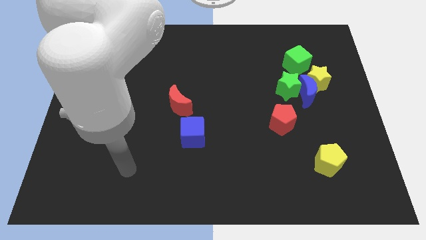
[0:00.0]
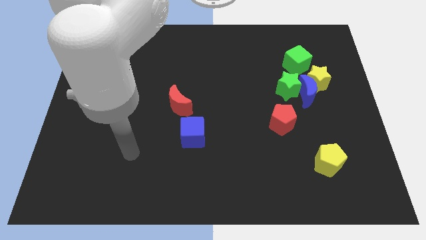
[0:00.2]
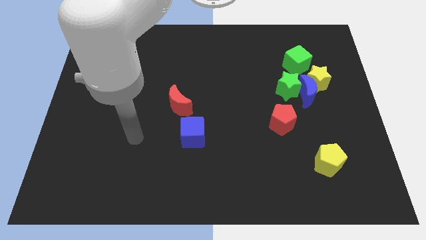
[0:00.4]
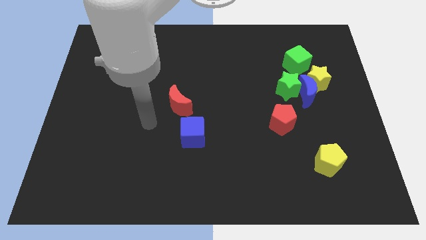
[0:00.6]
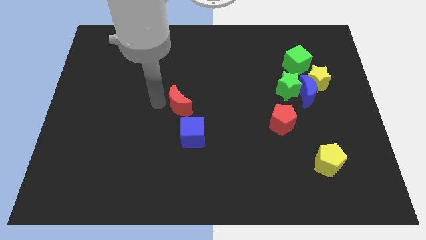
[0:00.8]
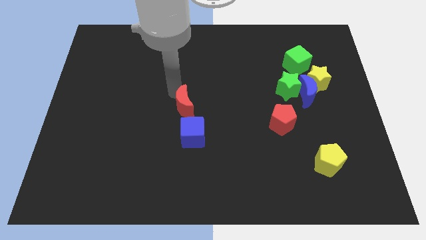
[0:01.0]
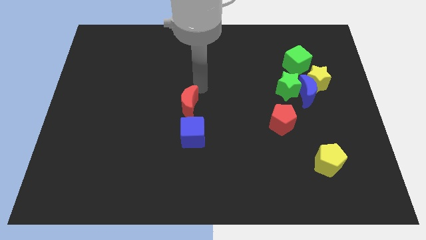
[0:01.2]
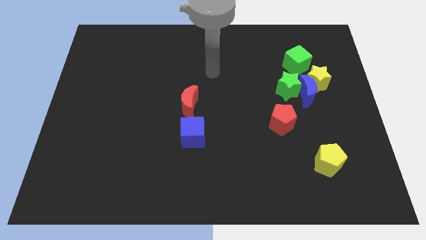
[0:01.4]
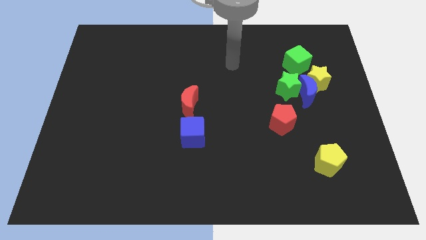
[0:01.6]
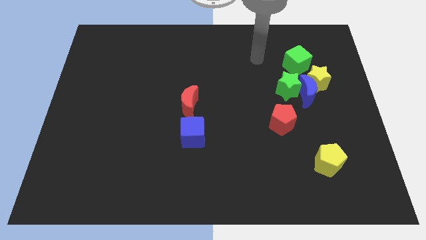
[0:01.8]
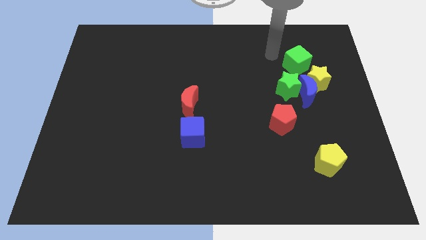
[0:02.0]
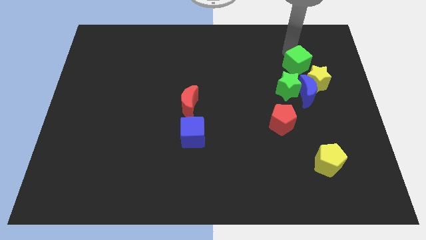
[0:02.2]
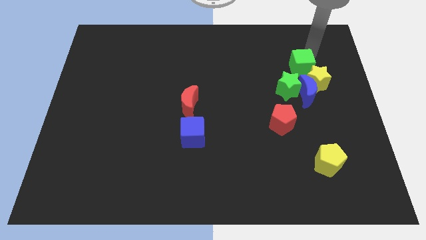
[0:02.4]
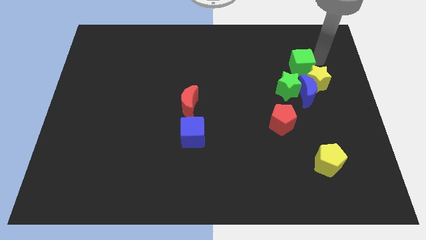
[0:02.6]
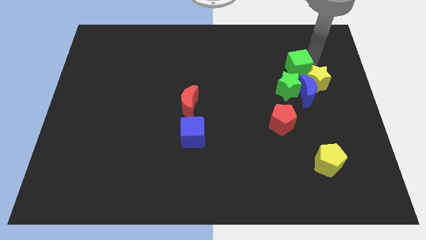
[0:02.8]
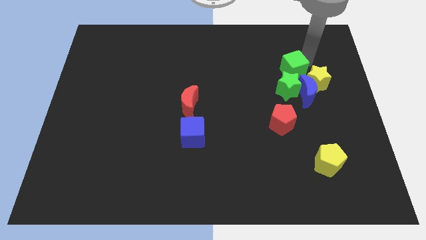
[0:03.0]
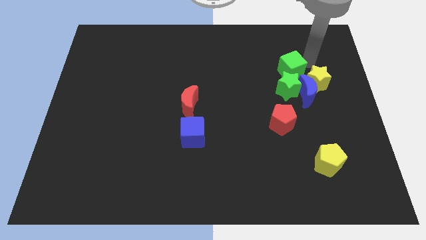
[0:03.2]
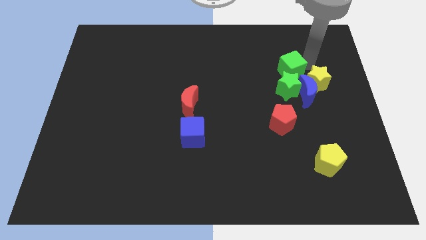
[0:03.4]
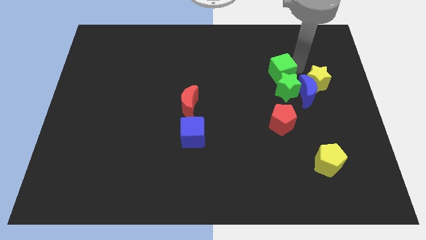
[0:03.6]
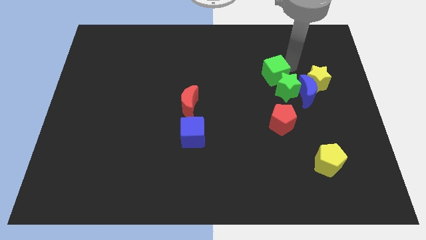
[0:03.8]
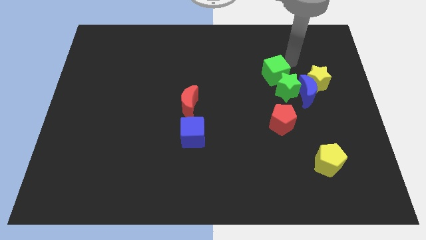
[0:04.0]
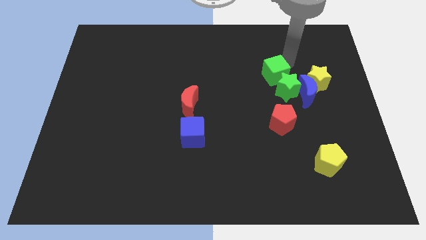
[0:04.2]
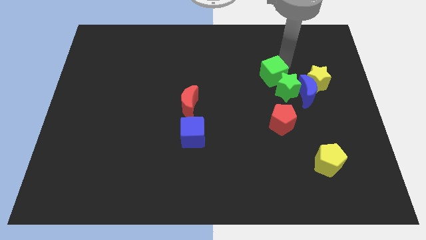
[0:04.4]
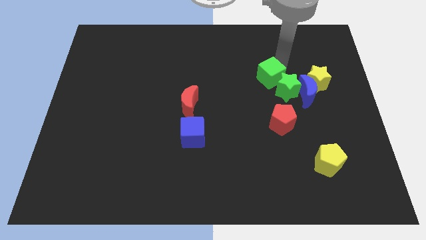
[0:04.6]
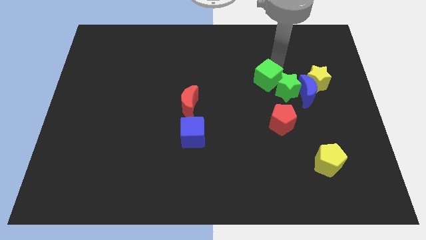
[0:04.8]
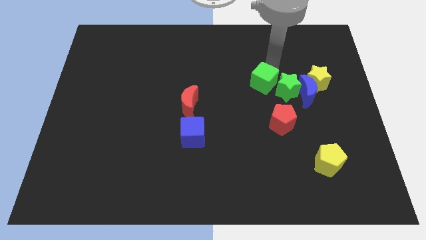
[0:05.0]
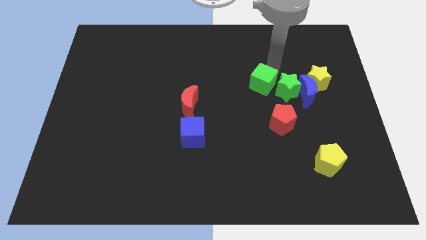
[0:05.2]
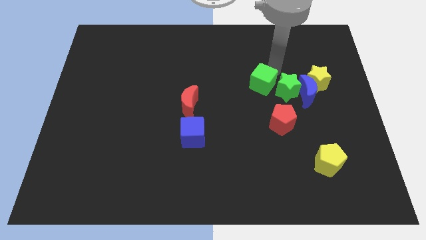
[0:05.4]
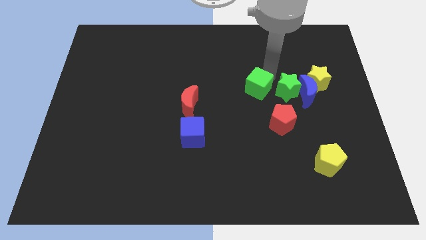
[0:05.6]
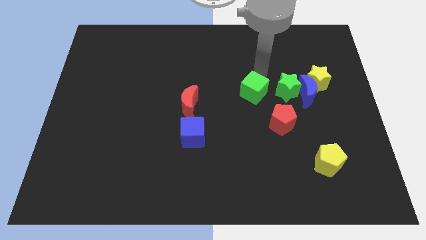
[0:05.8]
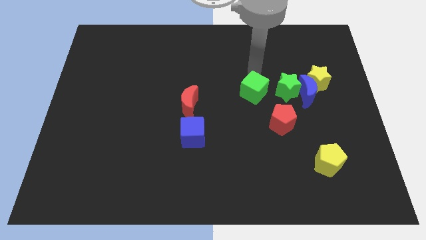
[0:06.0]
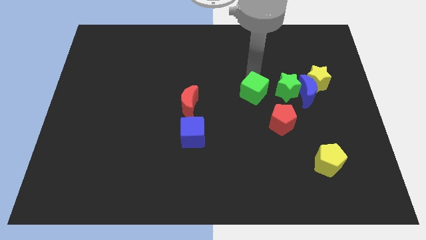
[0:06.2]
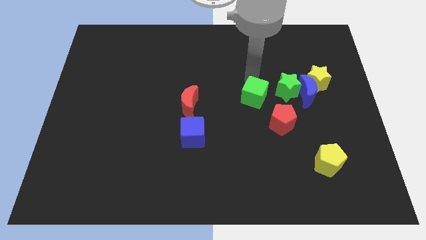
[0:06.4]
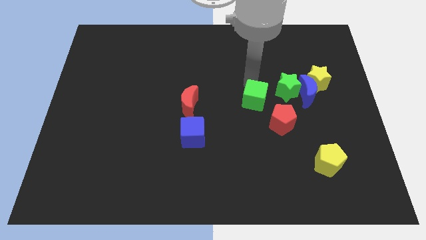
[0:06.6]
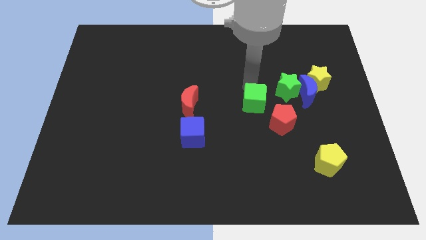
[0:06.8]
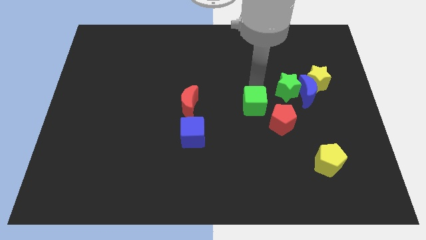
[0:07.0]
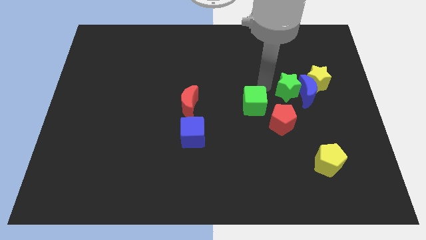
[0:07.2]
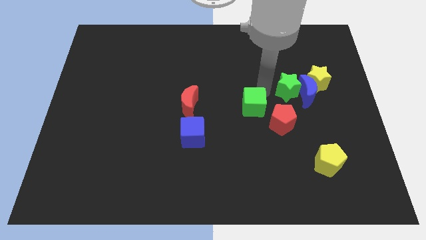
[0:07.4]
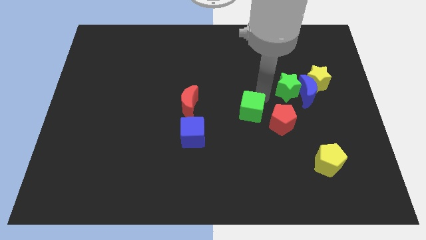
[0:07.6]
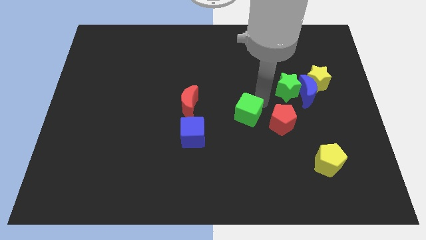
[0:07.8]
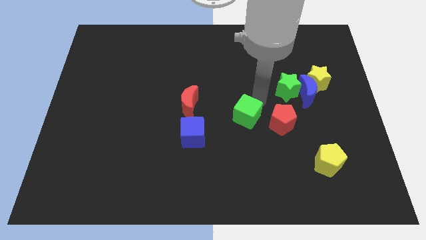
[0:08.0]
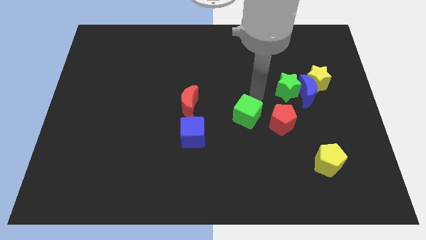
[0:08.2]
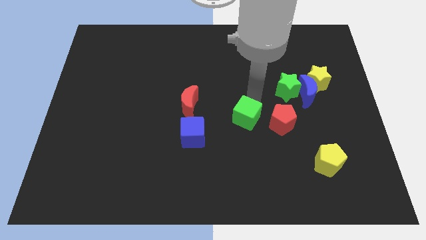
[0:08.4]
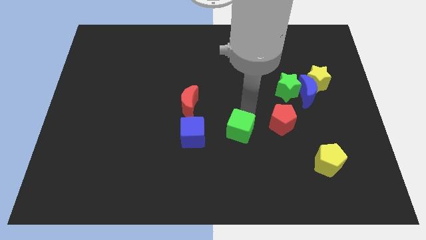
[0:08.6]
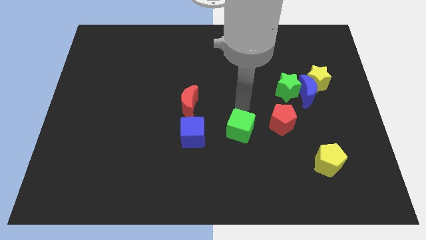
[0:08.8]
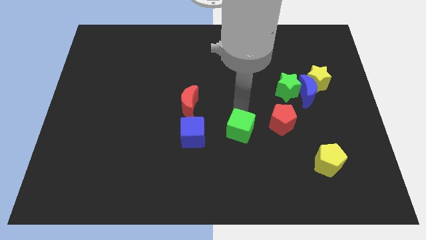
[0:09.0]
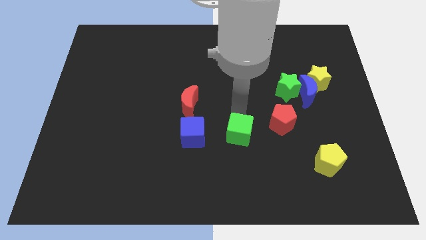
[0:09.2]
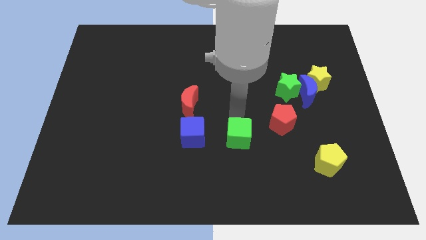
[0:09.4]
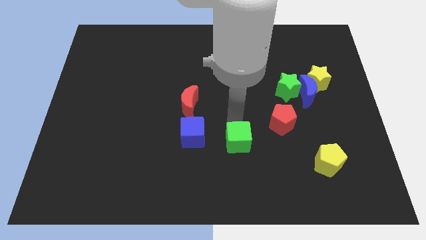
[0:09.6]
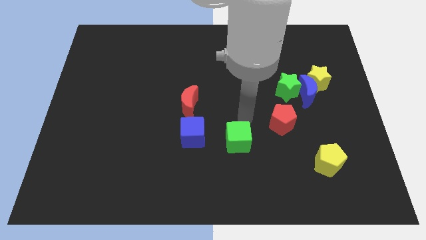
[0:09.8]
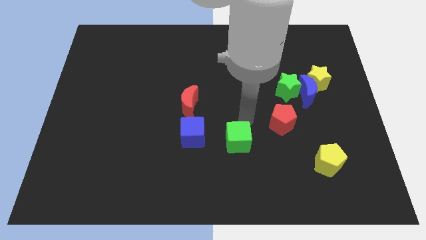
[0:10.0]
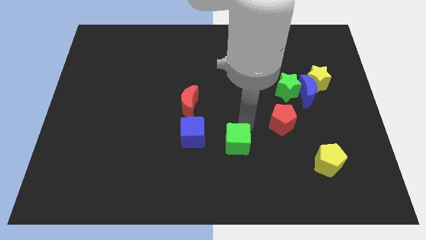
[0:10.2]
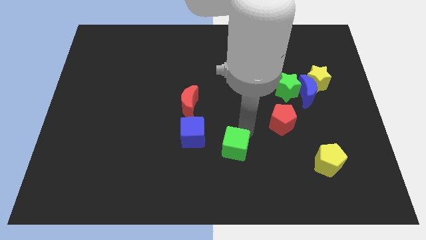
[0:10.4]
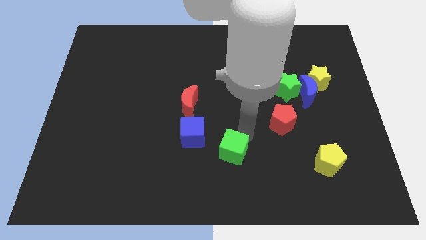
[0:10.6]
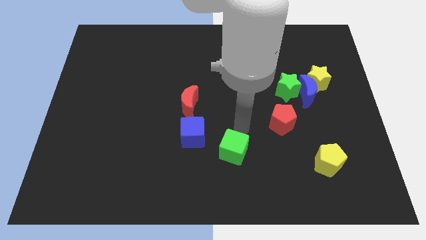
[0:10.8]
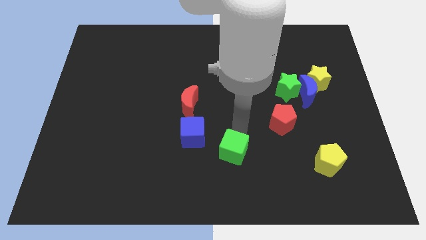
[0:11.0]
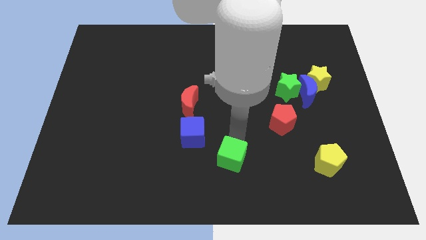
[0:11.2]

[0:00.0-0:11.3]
move the green cube to the bottom side
